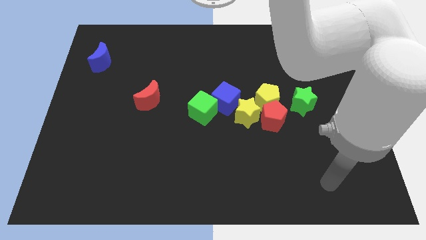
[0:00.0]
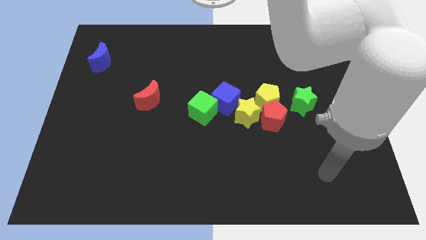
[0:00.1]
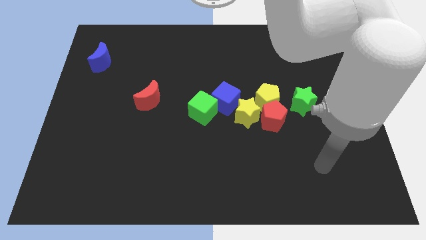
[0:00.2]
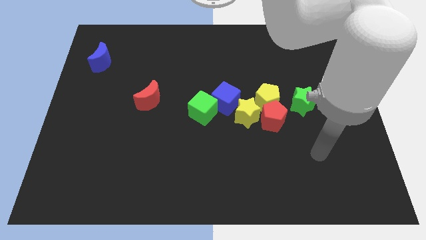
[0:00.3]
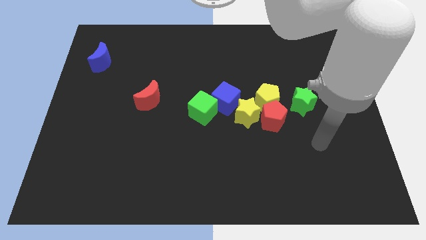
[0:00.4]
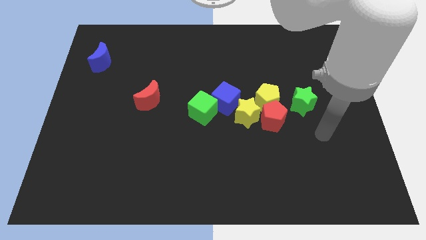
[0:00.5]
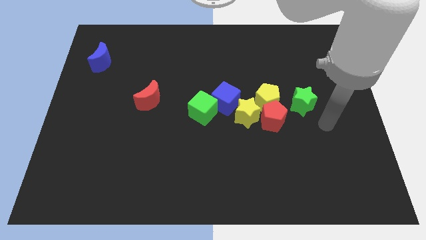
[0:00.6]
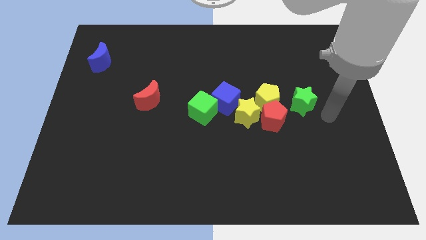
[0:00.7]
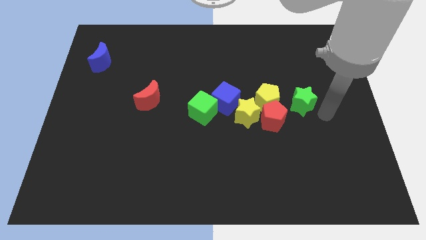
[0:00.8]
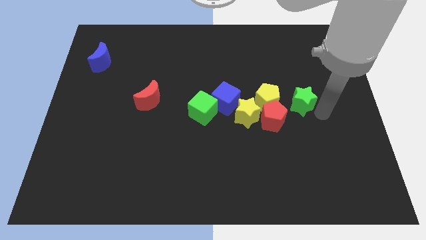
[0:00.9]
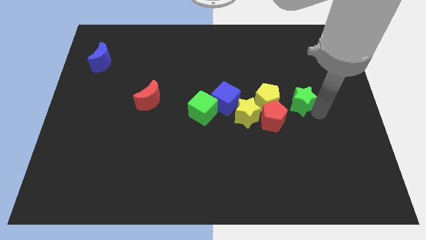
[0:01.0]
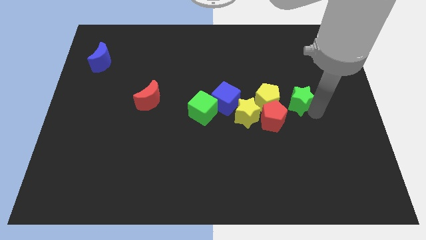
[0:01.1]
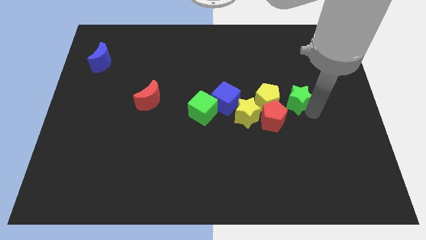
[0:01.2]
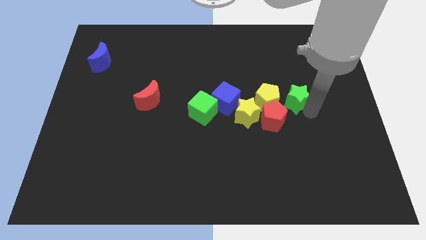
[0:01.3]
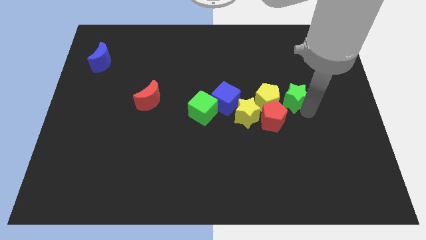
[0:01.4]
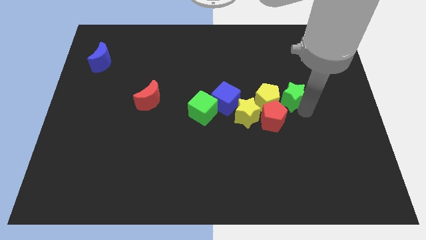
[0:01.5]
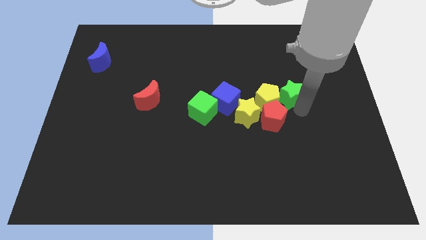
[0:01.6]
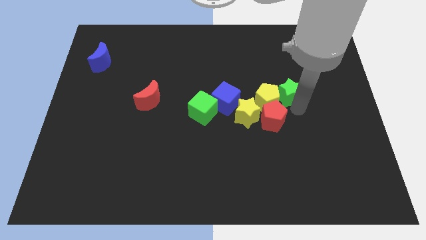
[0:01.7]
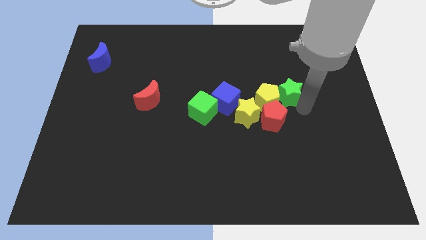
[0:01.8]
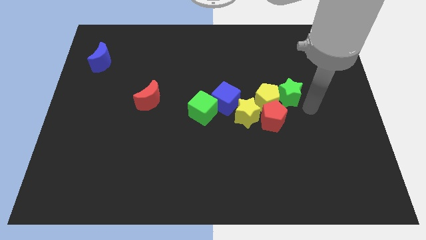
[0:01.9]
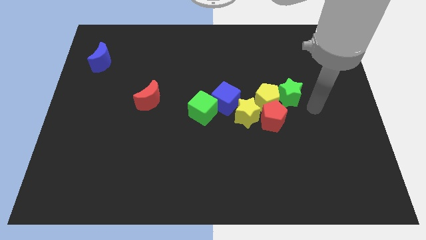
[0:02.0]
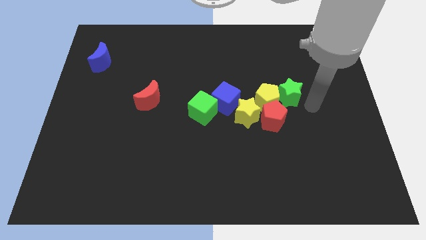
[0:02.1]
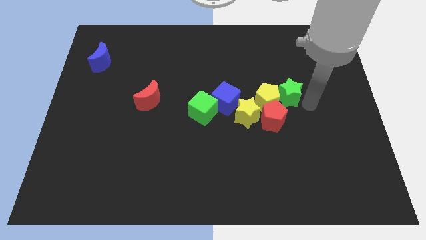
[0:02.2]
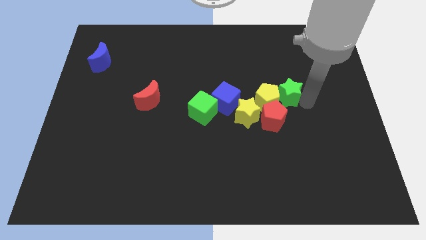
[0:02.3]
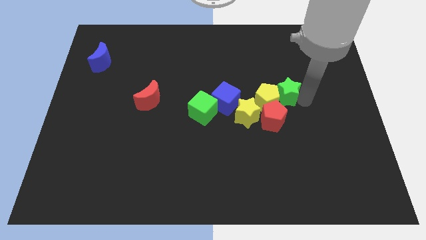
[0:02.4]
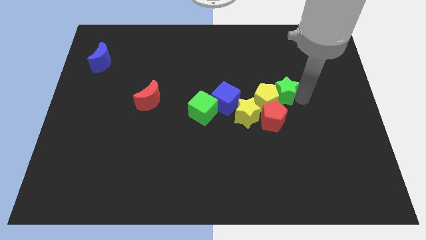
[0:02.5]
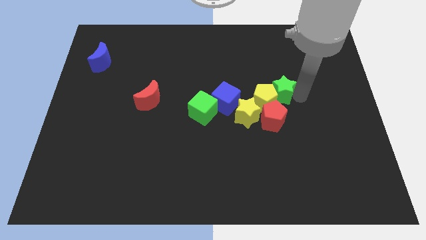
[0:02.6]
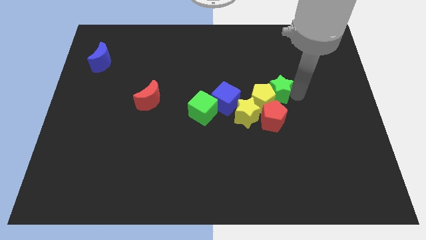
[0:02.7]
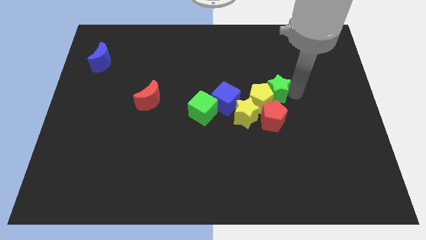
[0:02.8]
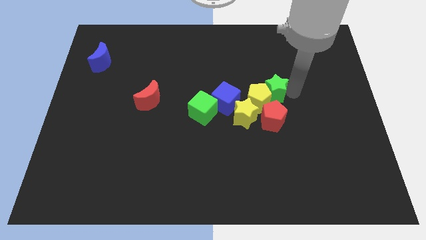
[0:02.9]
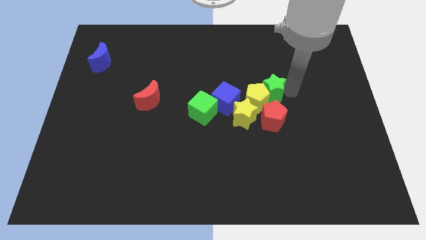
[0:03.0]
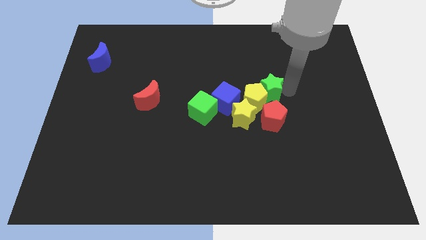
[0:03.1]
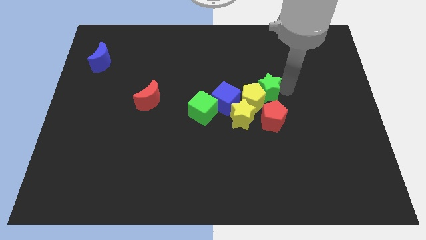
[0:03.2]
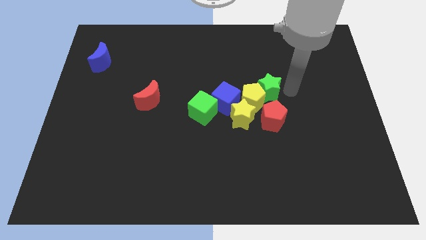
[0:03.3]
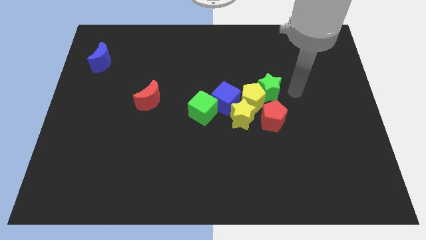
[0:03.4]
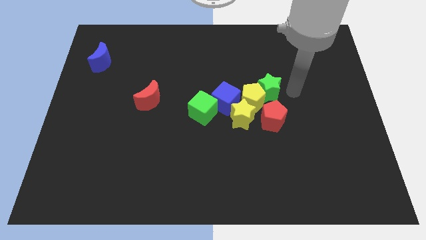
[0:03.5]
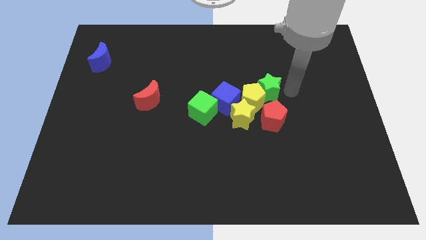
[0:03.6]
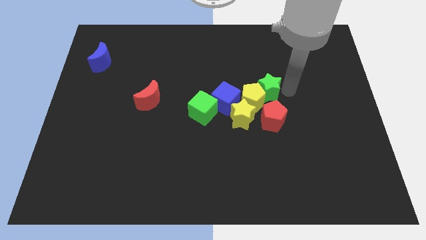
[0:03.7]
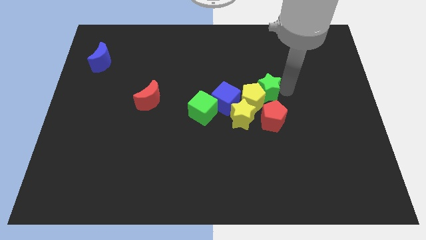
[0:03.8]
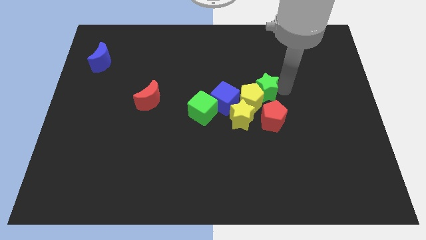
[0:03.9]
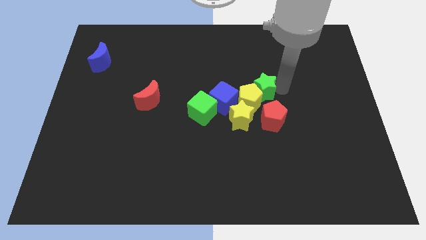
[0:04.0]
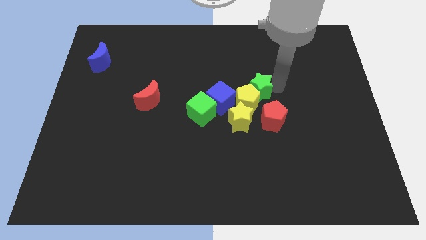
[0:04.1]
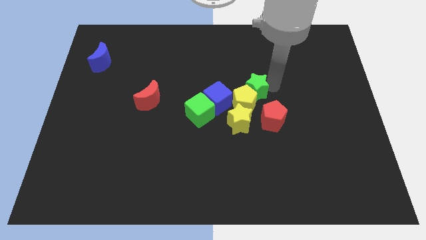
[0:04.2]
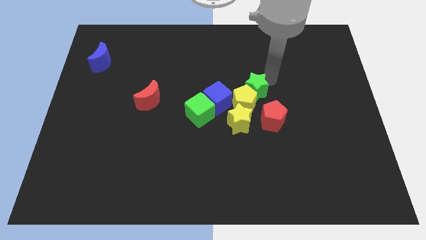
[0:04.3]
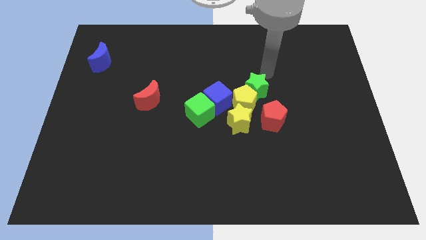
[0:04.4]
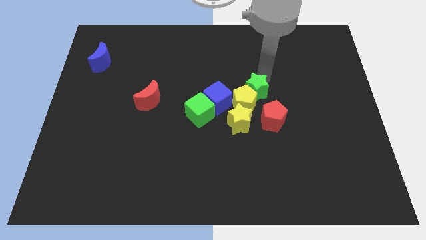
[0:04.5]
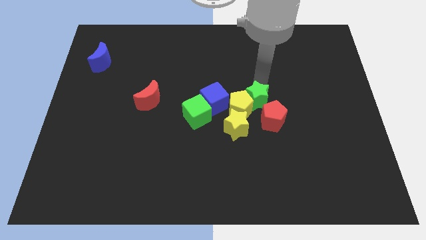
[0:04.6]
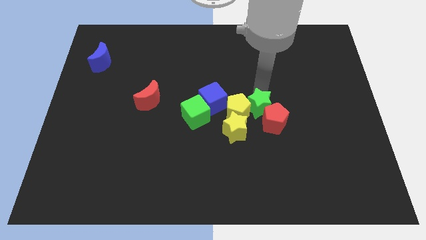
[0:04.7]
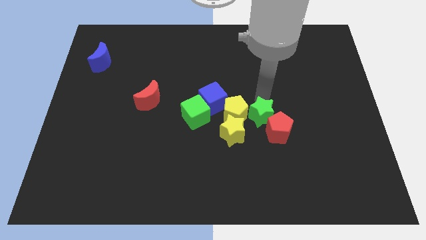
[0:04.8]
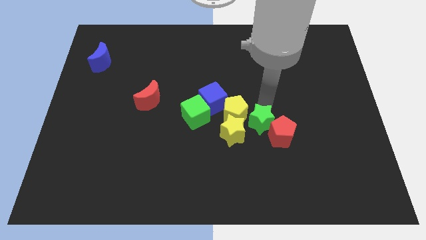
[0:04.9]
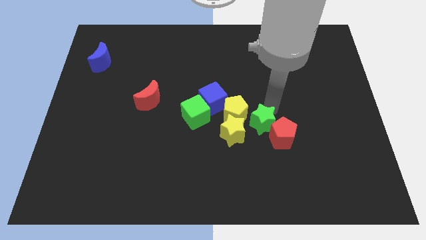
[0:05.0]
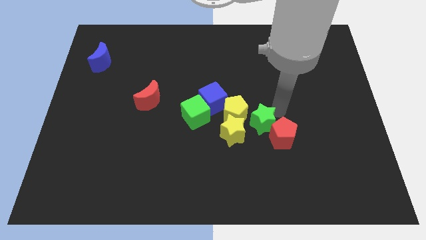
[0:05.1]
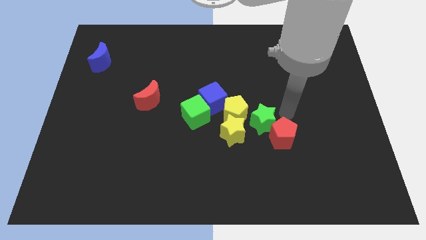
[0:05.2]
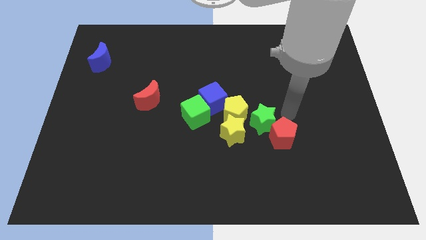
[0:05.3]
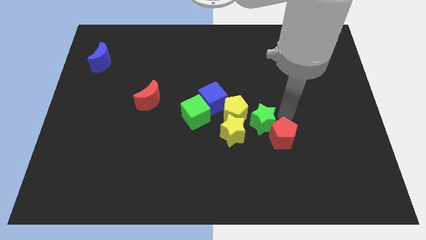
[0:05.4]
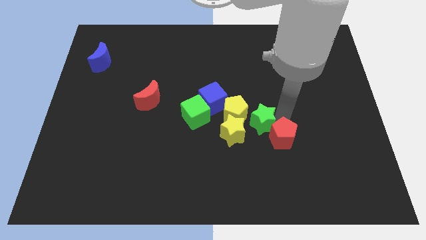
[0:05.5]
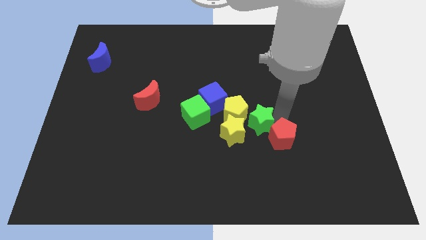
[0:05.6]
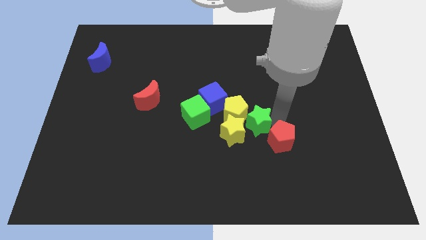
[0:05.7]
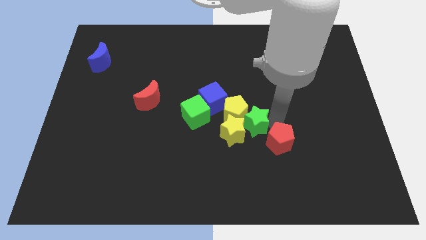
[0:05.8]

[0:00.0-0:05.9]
push the green star to the yellow star
